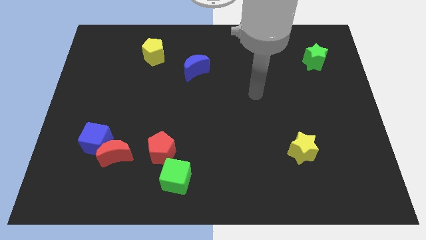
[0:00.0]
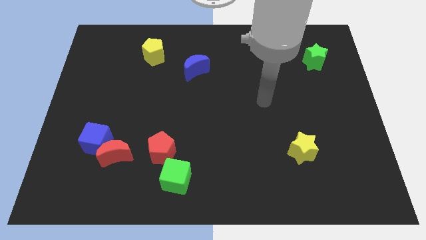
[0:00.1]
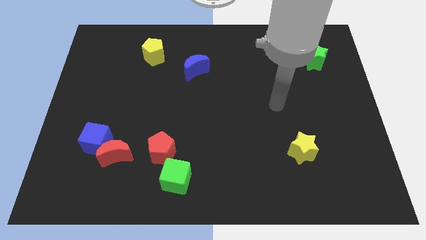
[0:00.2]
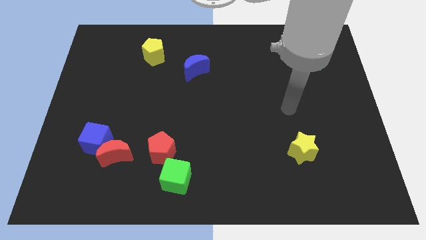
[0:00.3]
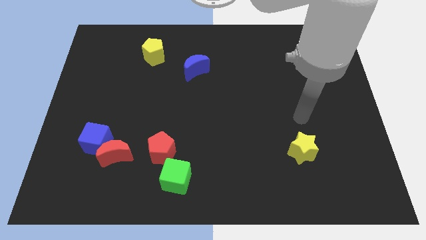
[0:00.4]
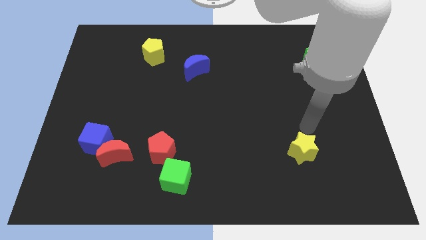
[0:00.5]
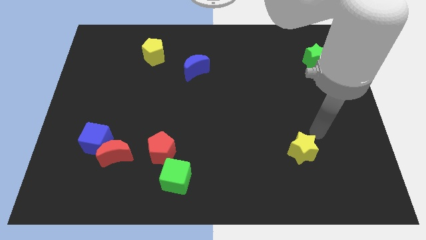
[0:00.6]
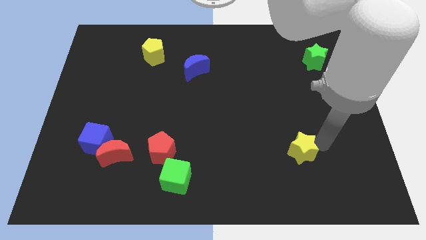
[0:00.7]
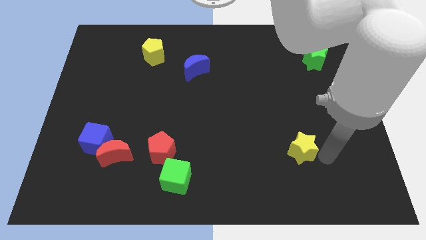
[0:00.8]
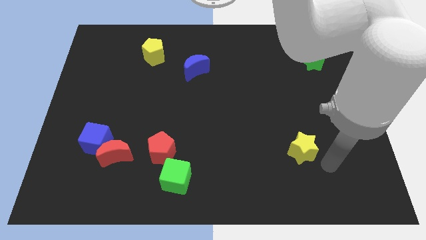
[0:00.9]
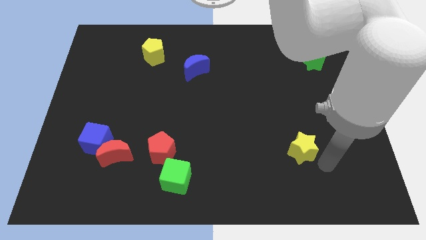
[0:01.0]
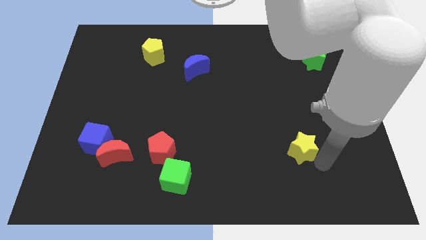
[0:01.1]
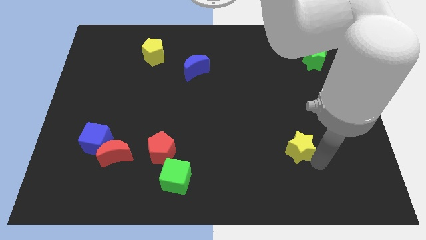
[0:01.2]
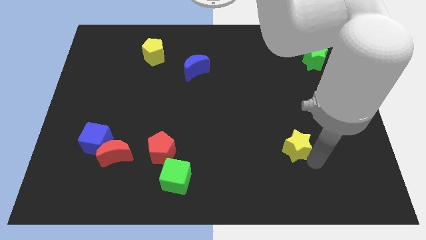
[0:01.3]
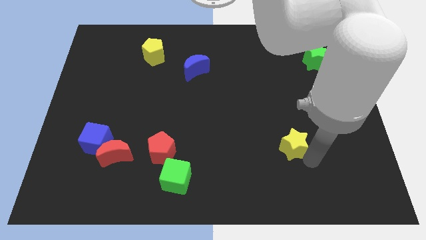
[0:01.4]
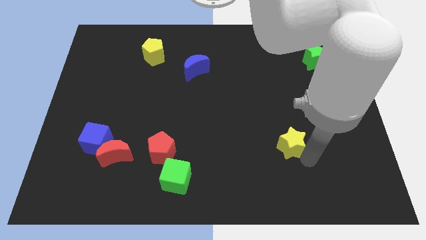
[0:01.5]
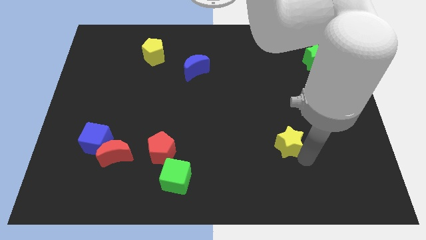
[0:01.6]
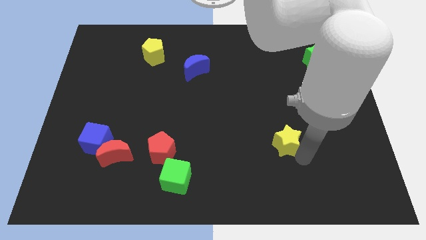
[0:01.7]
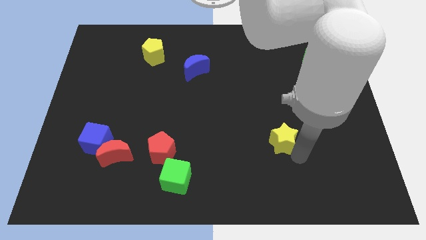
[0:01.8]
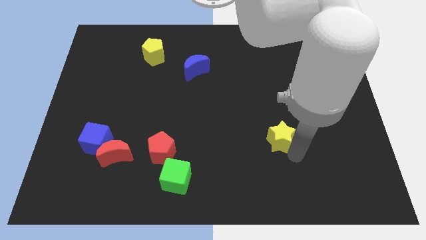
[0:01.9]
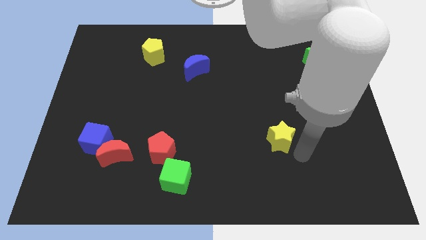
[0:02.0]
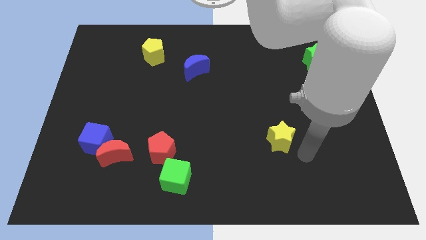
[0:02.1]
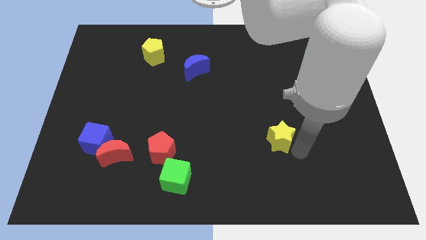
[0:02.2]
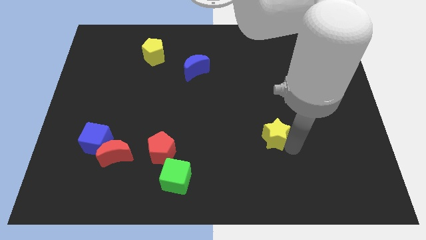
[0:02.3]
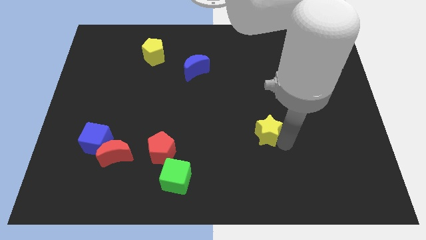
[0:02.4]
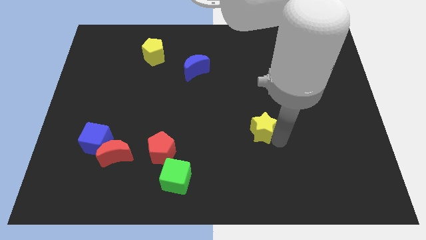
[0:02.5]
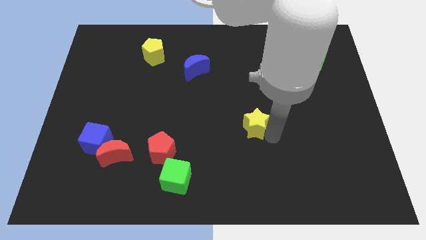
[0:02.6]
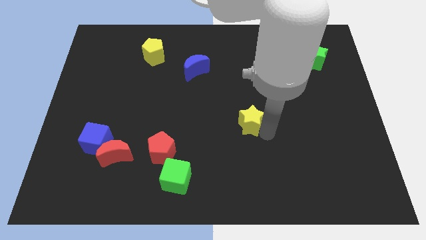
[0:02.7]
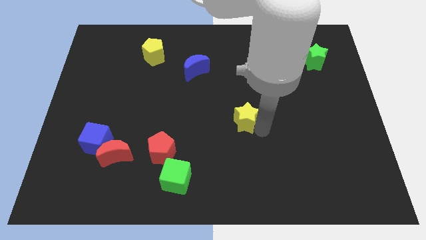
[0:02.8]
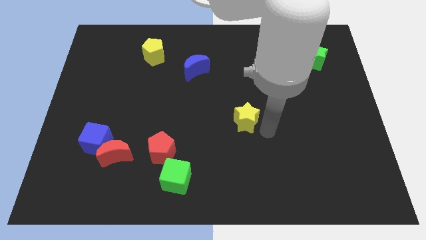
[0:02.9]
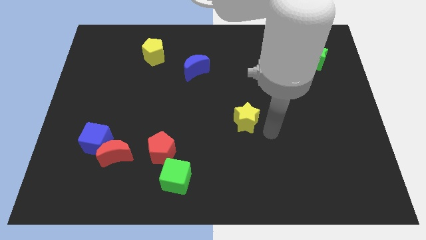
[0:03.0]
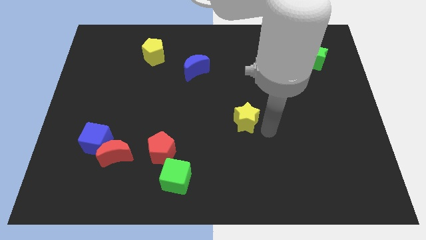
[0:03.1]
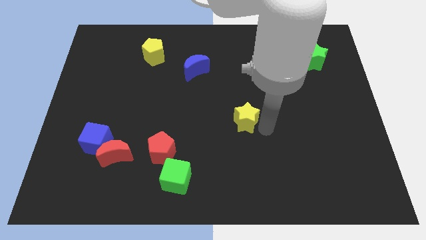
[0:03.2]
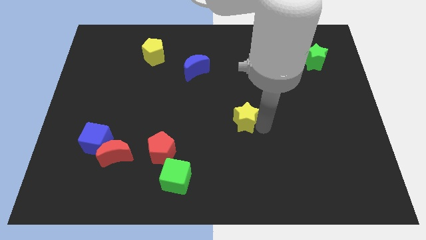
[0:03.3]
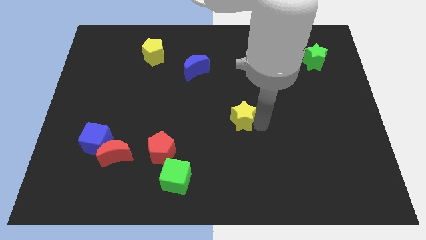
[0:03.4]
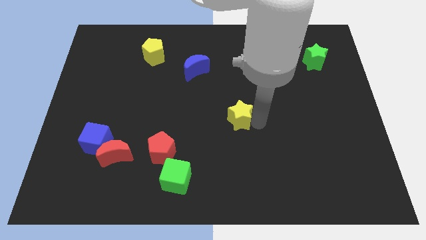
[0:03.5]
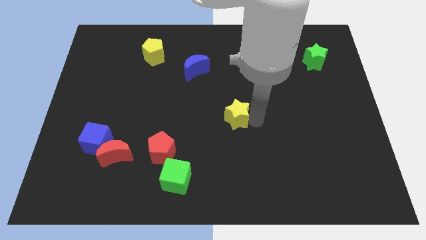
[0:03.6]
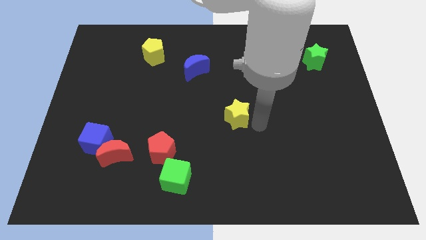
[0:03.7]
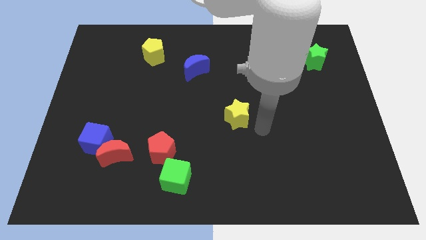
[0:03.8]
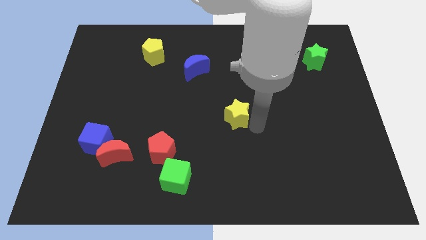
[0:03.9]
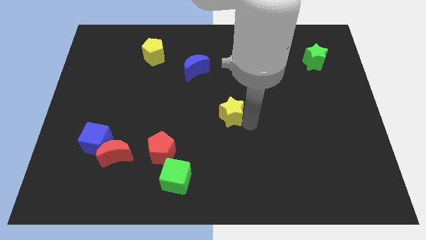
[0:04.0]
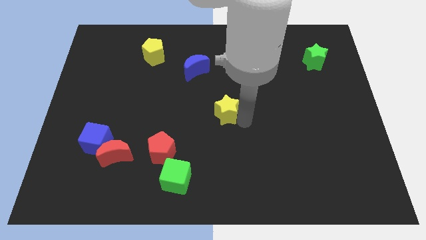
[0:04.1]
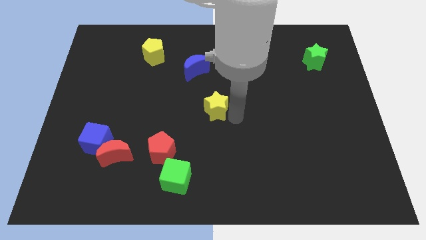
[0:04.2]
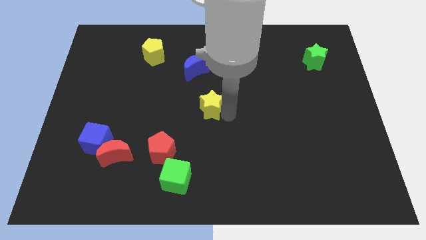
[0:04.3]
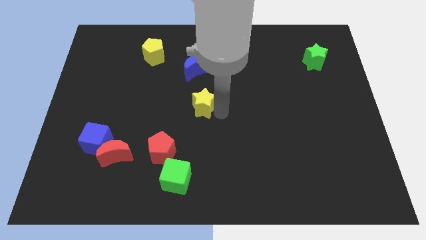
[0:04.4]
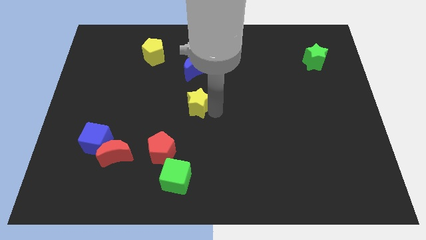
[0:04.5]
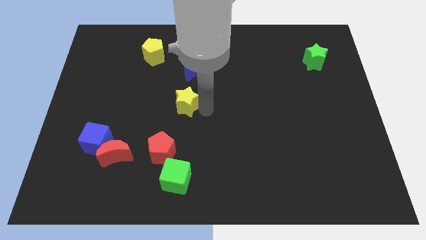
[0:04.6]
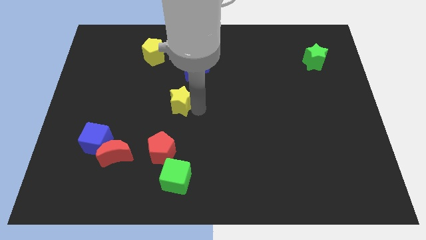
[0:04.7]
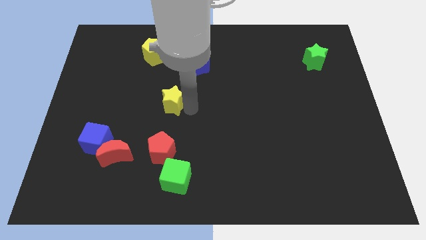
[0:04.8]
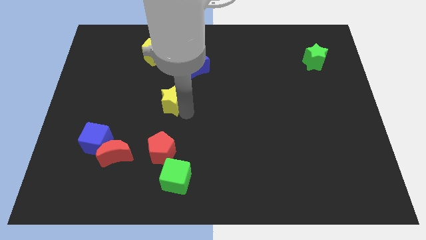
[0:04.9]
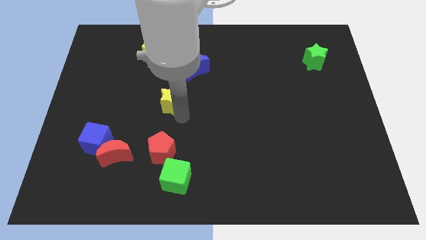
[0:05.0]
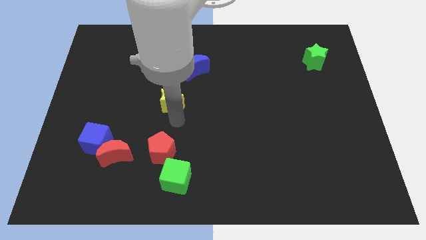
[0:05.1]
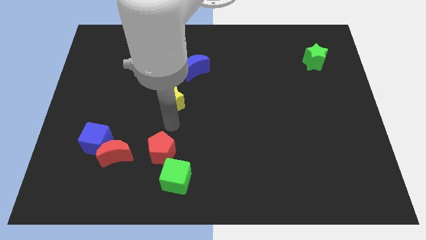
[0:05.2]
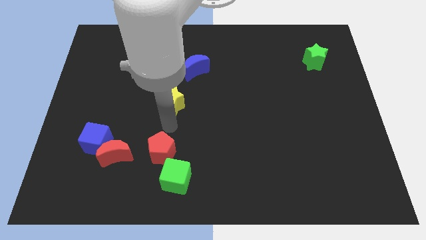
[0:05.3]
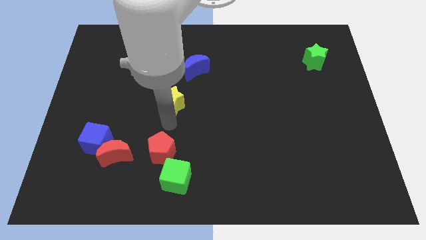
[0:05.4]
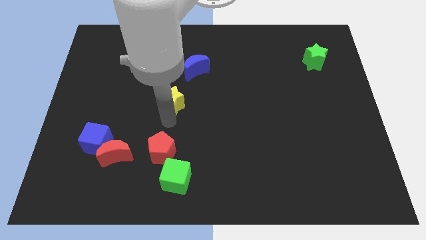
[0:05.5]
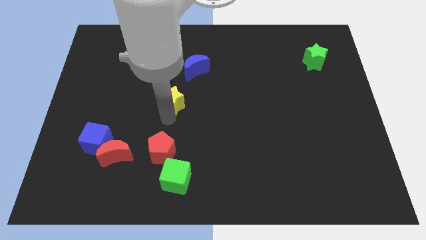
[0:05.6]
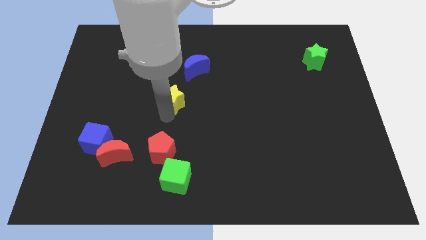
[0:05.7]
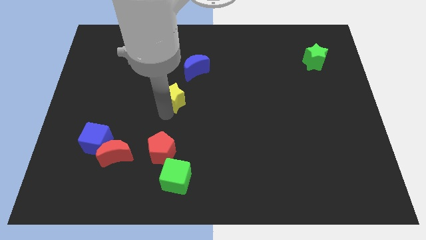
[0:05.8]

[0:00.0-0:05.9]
move the yellow star to the bottom left of the blue moon

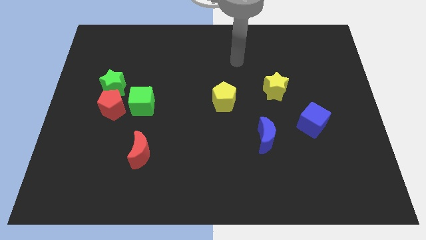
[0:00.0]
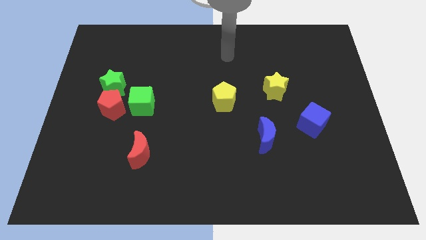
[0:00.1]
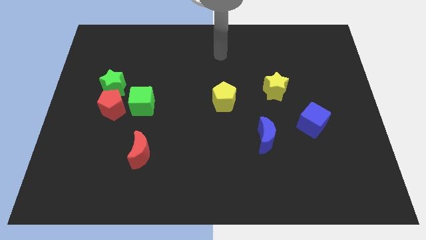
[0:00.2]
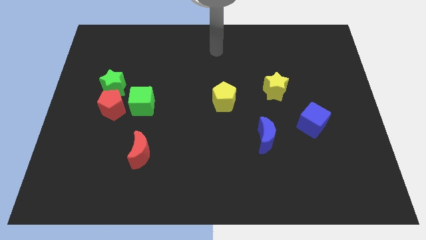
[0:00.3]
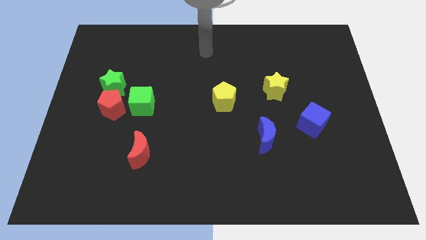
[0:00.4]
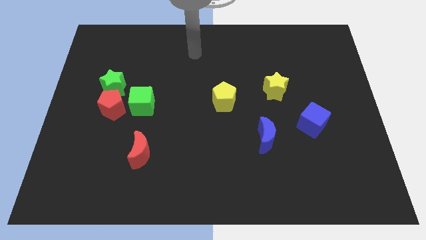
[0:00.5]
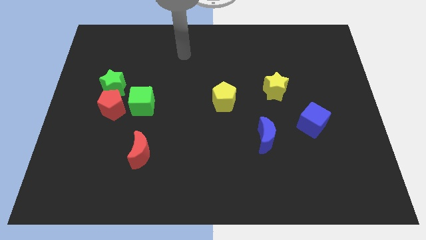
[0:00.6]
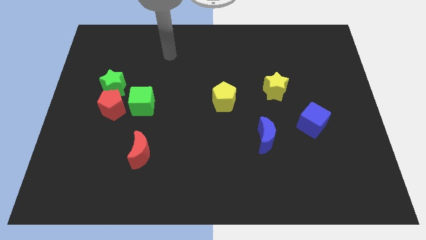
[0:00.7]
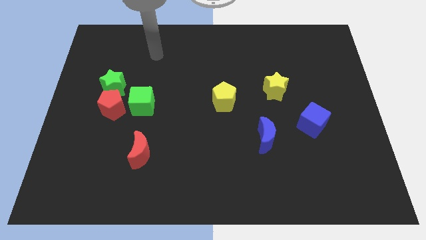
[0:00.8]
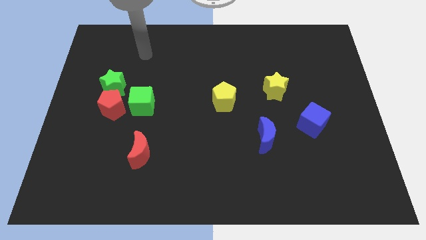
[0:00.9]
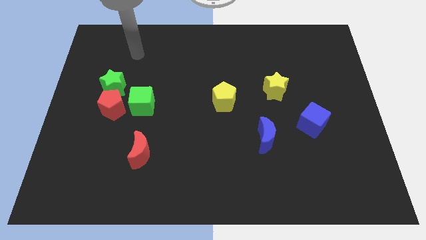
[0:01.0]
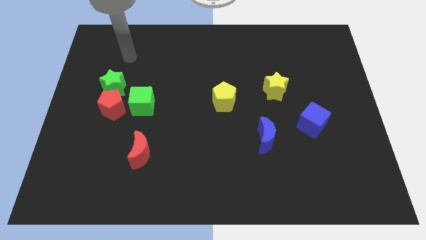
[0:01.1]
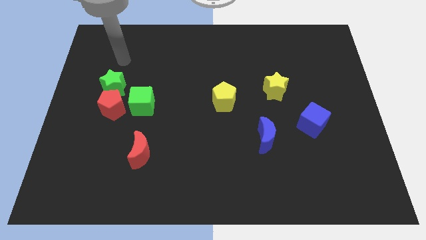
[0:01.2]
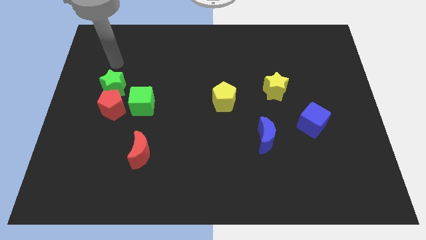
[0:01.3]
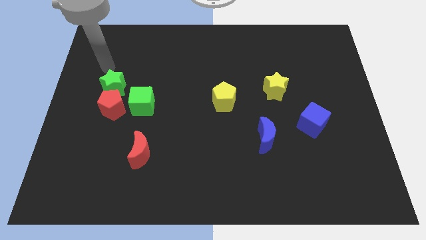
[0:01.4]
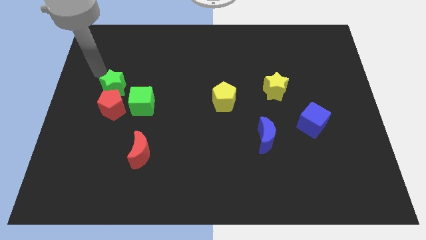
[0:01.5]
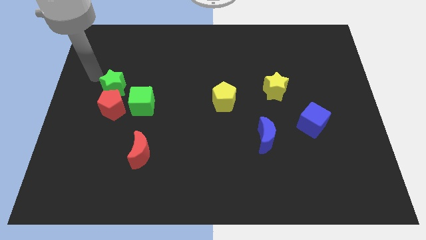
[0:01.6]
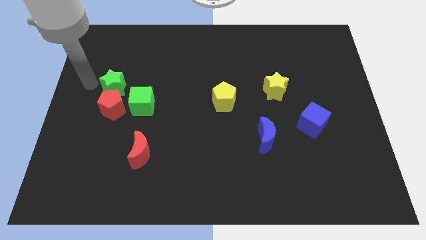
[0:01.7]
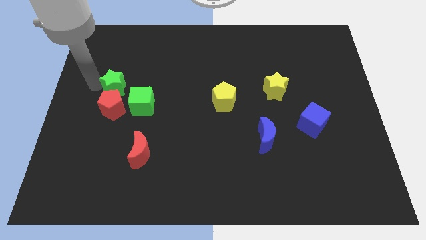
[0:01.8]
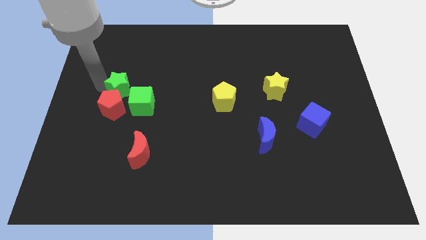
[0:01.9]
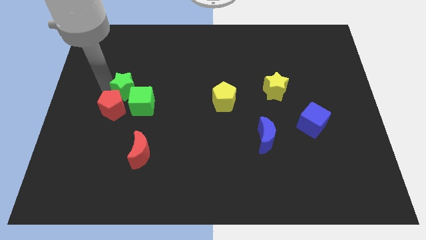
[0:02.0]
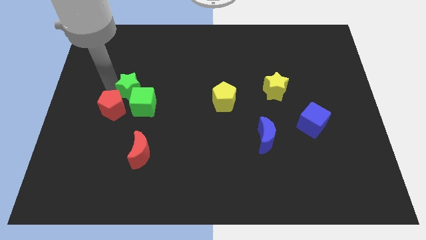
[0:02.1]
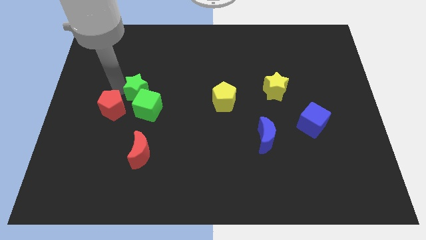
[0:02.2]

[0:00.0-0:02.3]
move the green star just right of the red pentagon

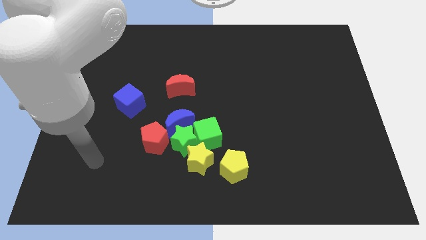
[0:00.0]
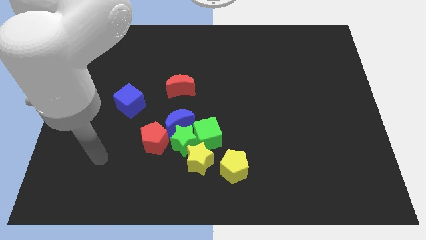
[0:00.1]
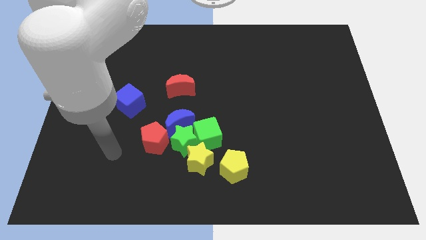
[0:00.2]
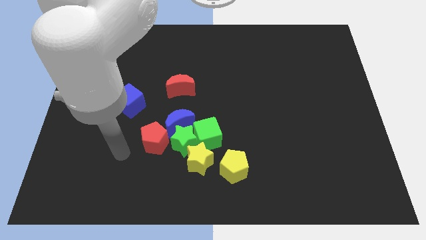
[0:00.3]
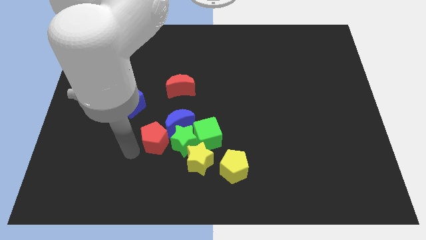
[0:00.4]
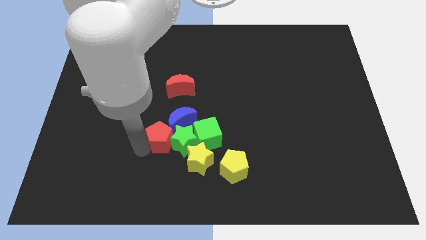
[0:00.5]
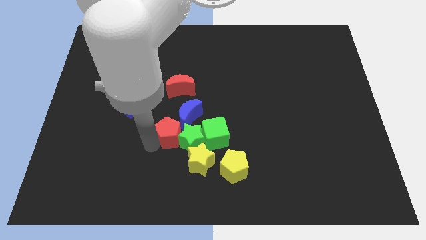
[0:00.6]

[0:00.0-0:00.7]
slide the blue moon to the bottom right side of the red moon
